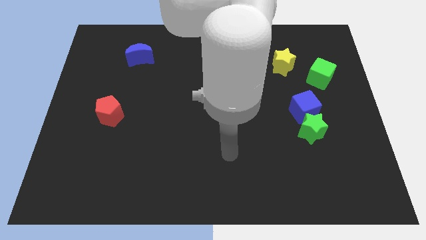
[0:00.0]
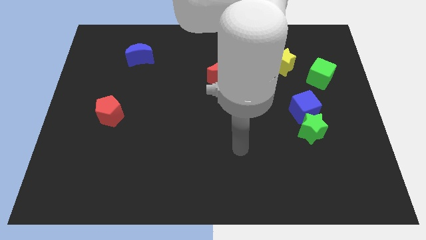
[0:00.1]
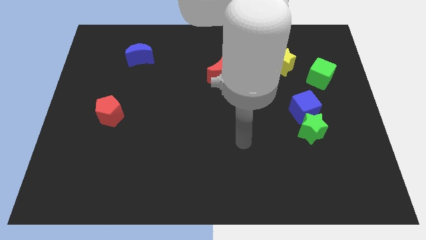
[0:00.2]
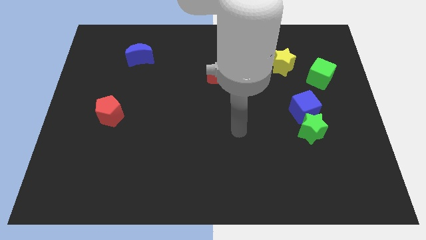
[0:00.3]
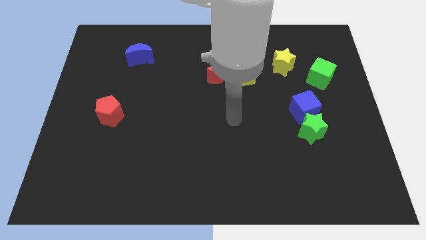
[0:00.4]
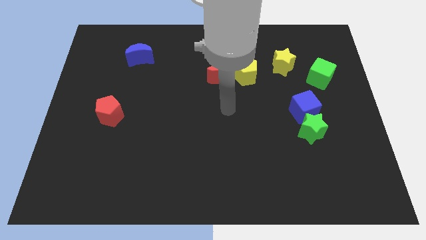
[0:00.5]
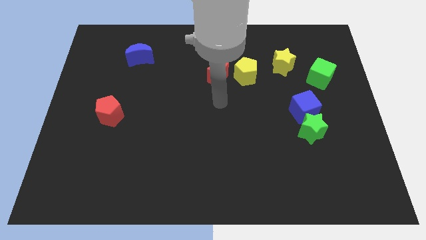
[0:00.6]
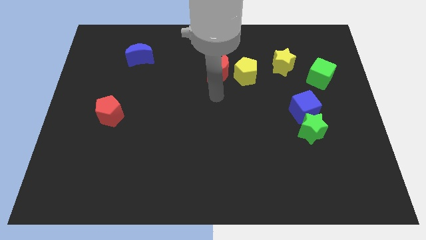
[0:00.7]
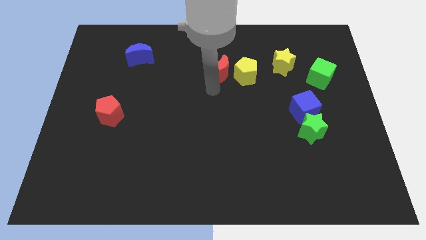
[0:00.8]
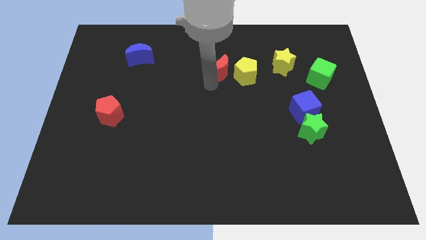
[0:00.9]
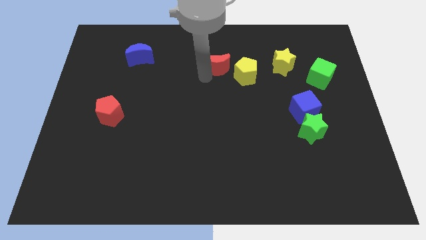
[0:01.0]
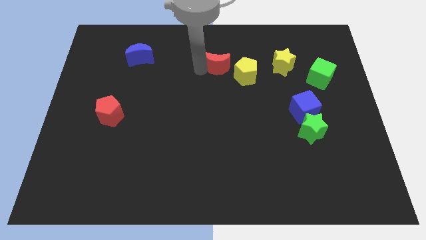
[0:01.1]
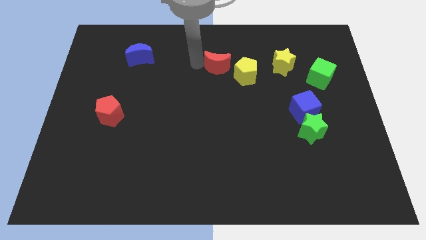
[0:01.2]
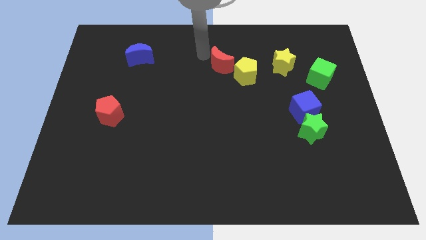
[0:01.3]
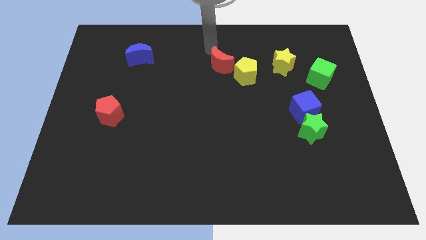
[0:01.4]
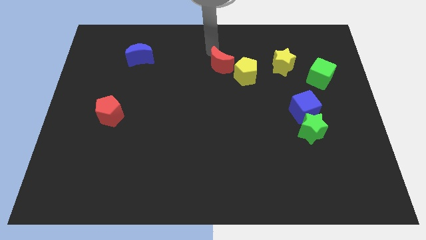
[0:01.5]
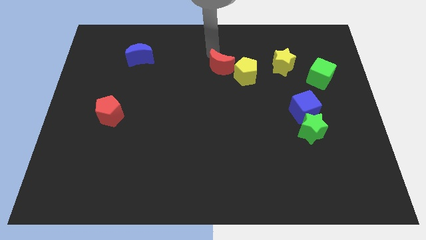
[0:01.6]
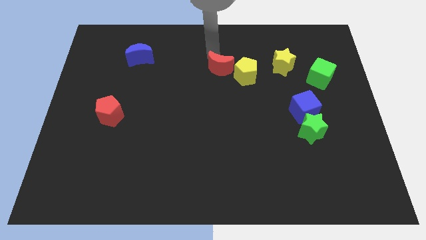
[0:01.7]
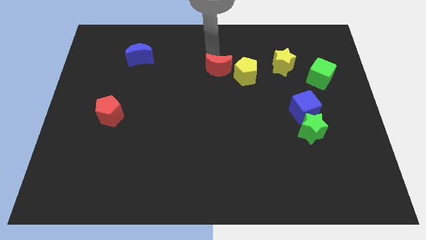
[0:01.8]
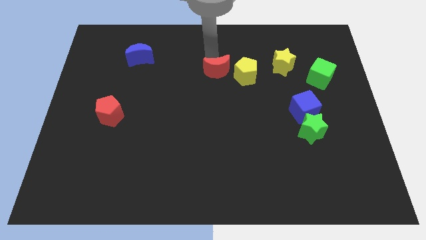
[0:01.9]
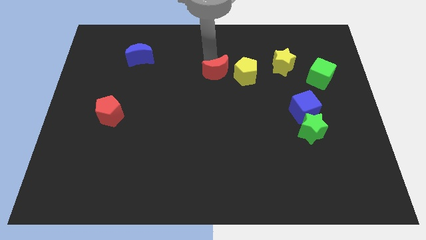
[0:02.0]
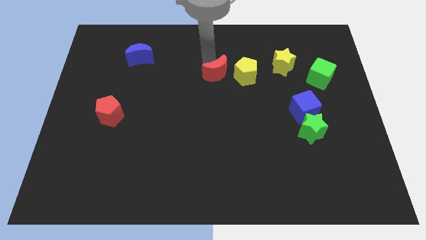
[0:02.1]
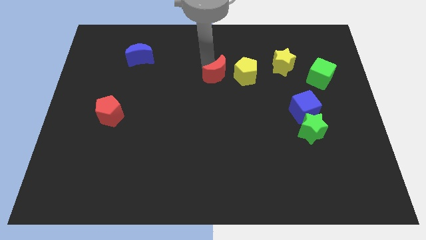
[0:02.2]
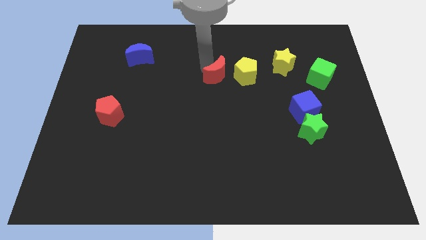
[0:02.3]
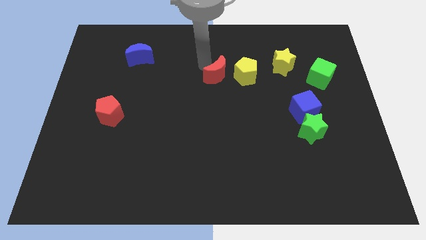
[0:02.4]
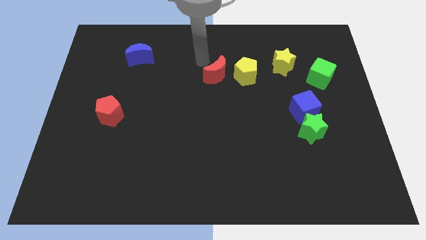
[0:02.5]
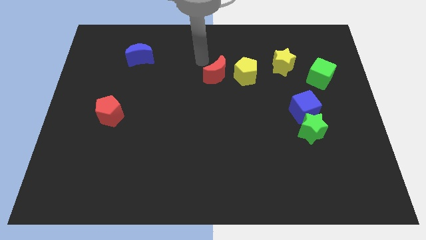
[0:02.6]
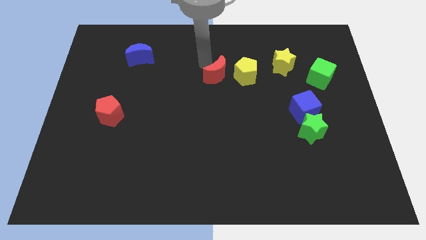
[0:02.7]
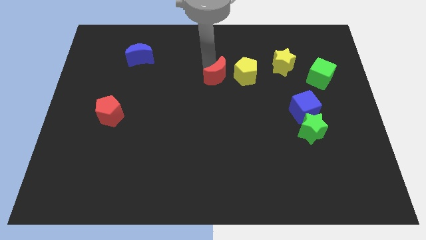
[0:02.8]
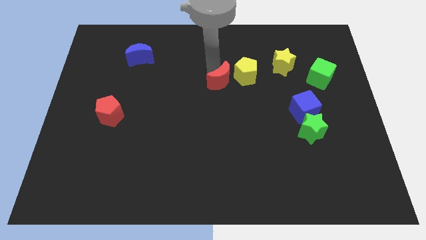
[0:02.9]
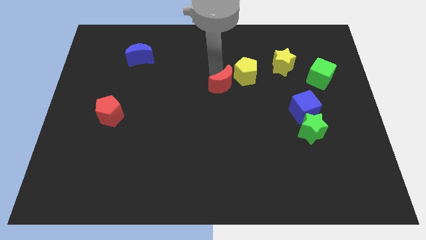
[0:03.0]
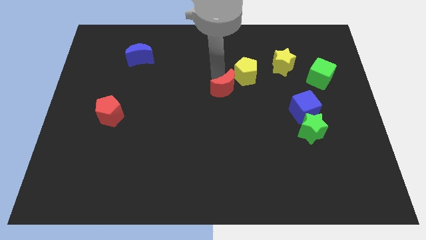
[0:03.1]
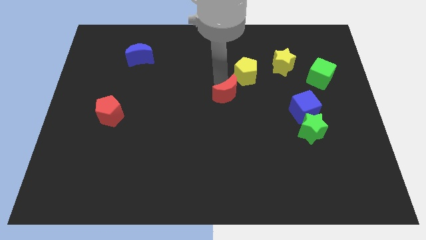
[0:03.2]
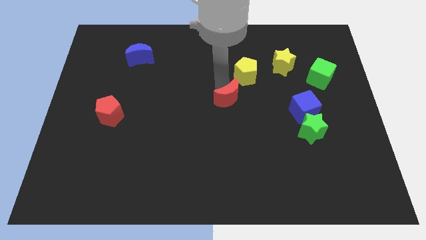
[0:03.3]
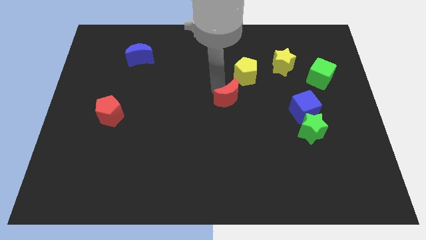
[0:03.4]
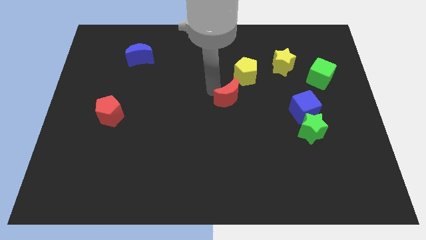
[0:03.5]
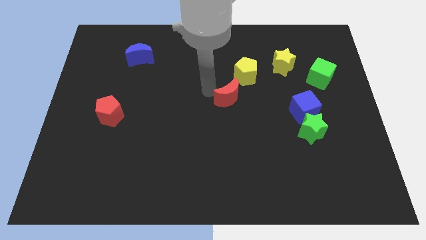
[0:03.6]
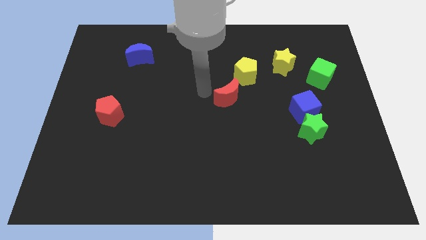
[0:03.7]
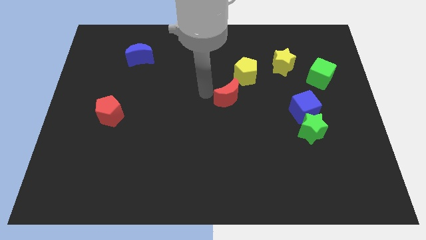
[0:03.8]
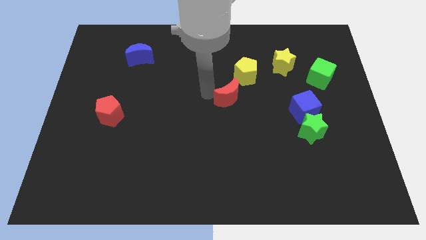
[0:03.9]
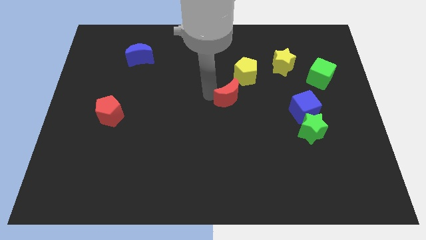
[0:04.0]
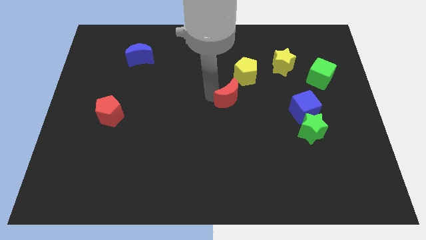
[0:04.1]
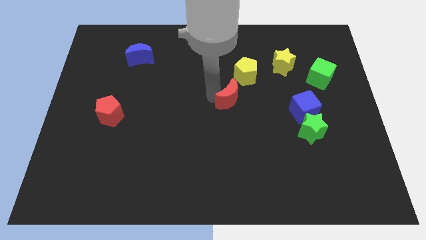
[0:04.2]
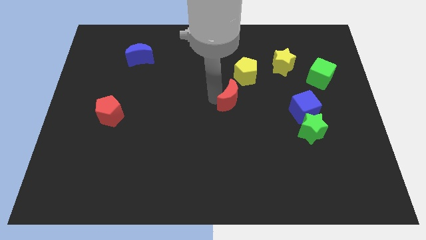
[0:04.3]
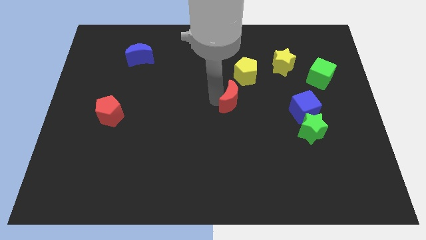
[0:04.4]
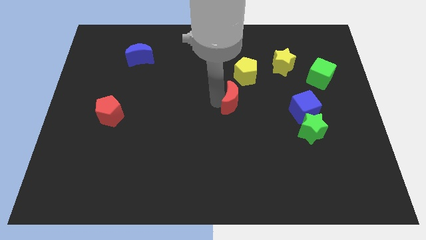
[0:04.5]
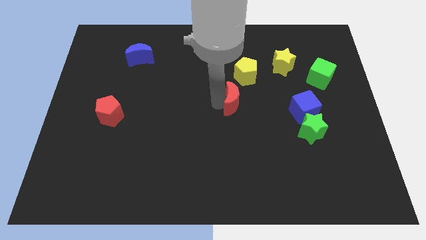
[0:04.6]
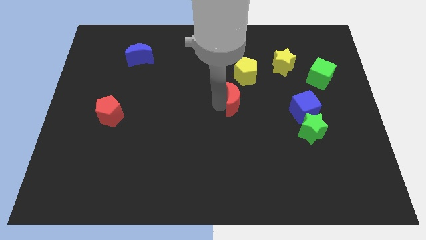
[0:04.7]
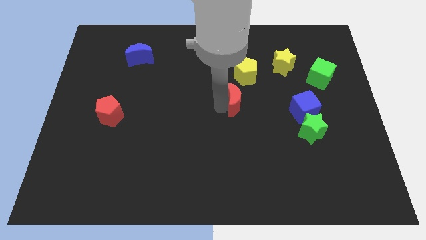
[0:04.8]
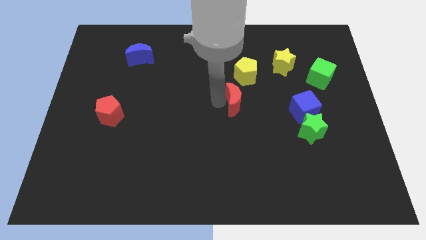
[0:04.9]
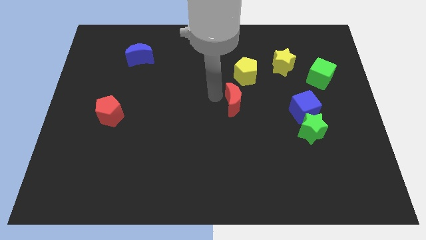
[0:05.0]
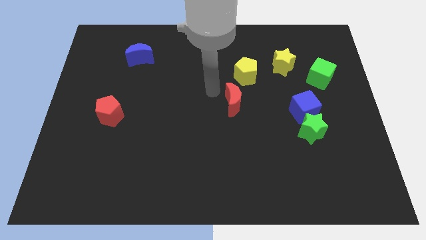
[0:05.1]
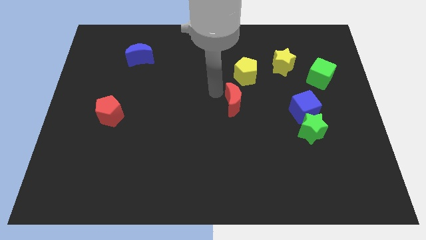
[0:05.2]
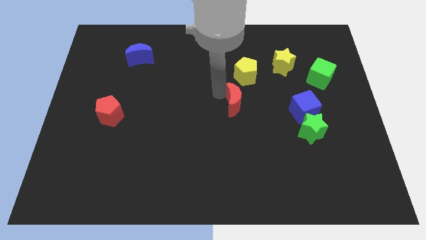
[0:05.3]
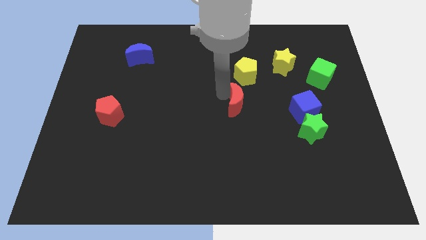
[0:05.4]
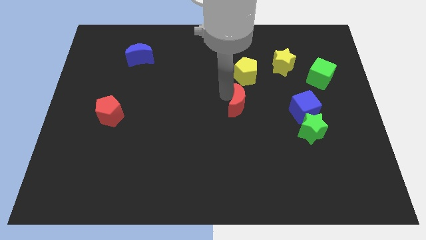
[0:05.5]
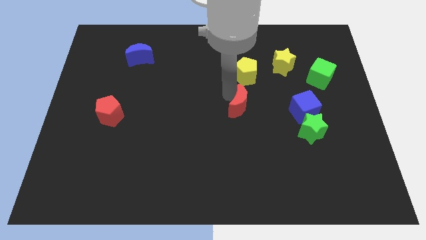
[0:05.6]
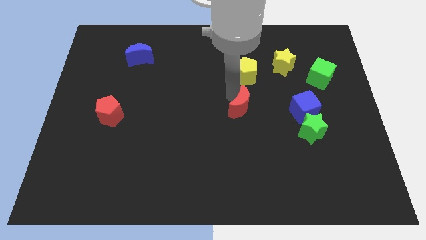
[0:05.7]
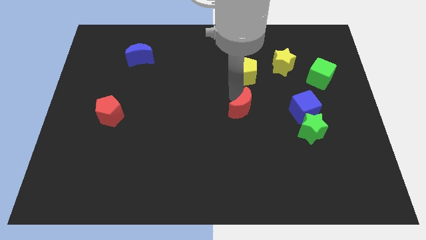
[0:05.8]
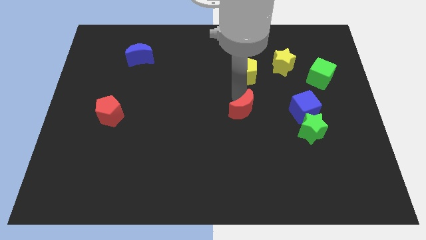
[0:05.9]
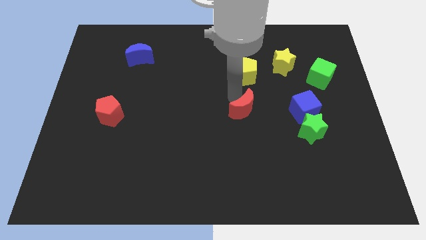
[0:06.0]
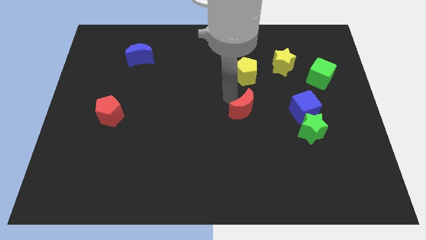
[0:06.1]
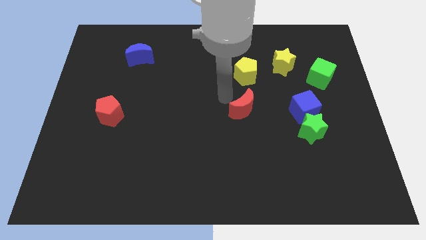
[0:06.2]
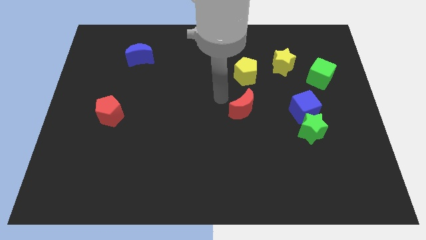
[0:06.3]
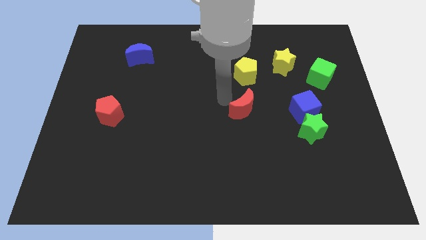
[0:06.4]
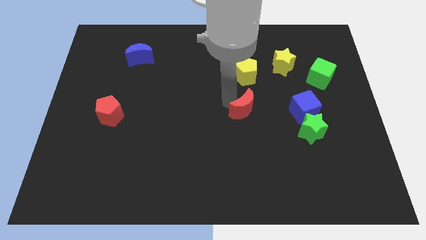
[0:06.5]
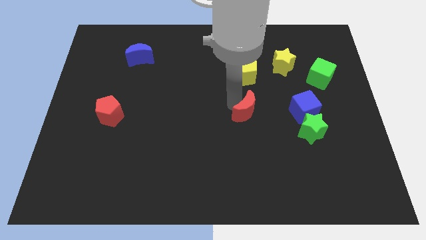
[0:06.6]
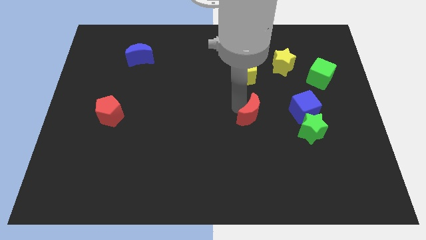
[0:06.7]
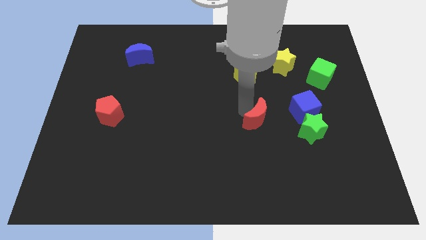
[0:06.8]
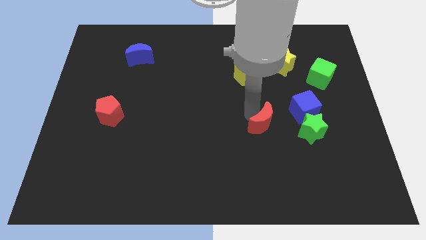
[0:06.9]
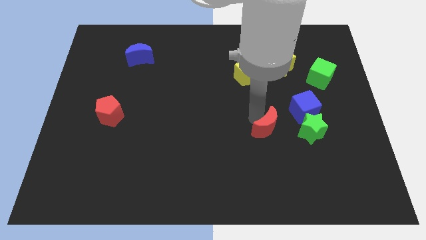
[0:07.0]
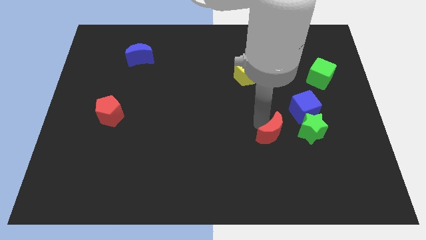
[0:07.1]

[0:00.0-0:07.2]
slide the red moon down and to the right diagonally

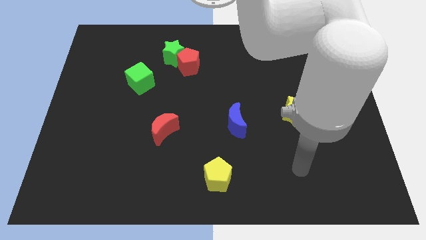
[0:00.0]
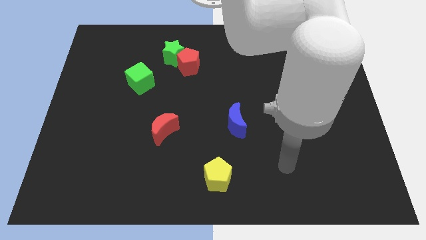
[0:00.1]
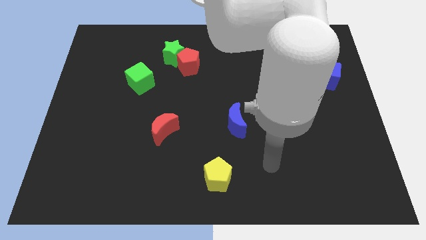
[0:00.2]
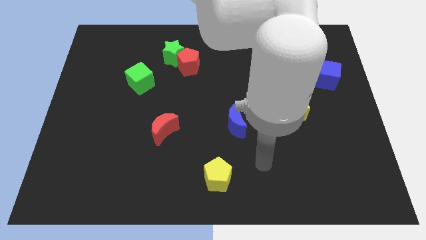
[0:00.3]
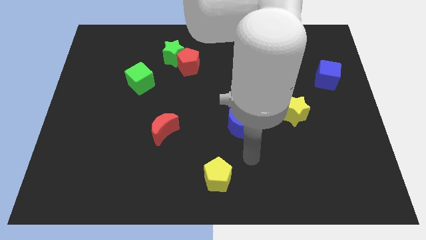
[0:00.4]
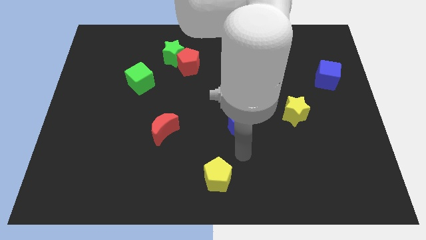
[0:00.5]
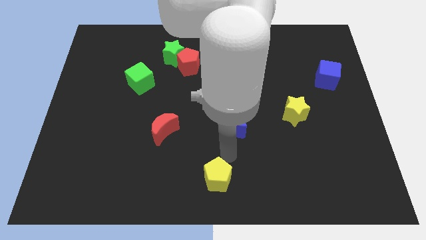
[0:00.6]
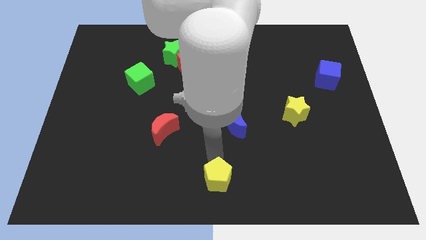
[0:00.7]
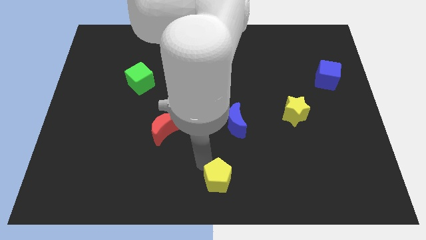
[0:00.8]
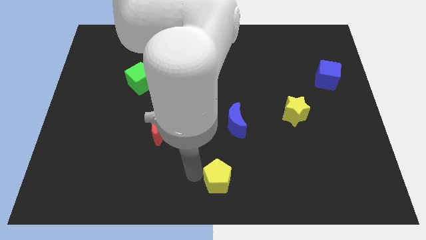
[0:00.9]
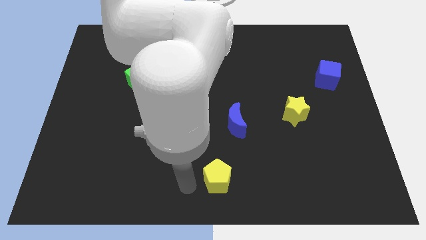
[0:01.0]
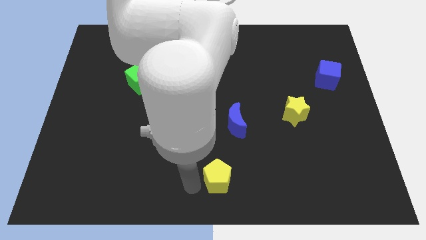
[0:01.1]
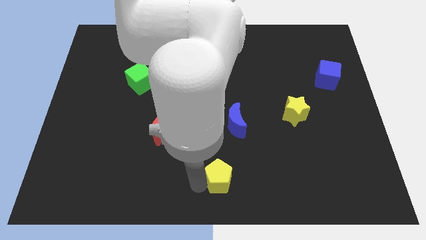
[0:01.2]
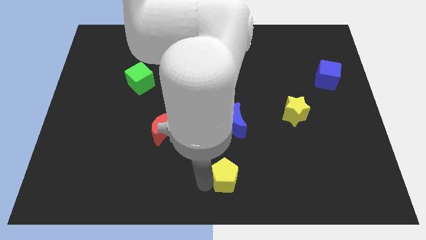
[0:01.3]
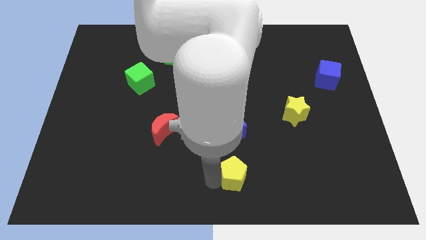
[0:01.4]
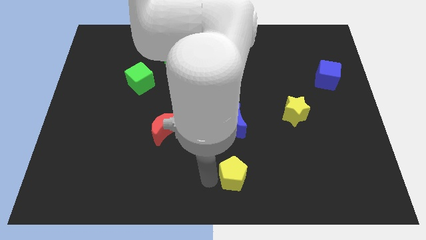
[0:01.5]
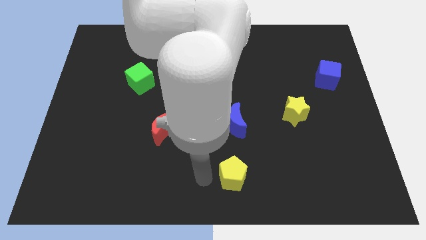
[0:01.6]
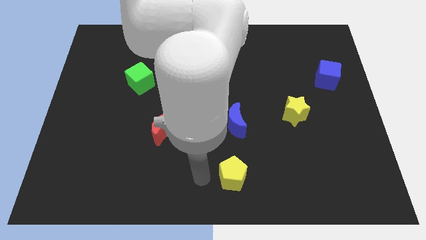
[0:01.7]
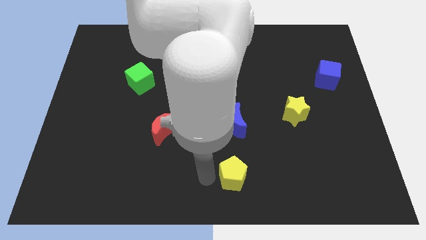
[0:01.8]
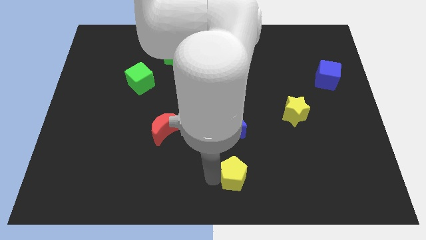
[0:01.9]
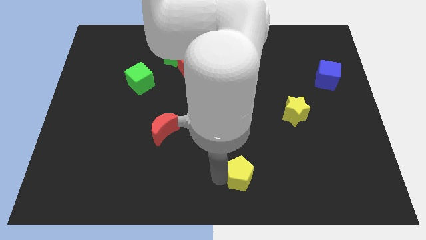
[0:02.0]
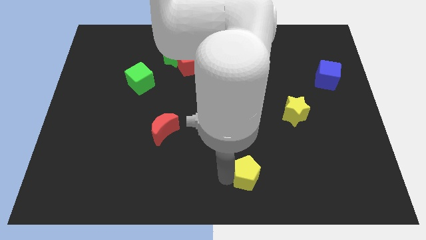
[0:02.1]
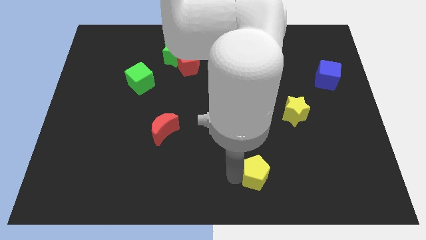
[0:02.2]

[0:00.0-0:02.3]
move the yellow pentagon to the right a little bit
